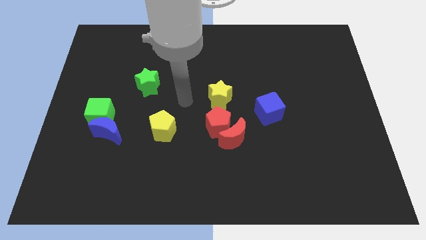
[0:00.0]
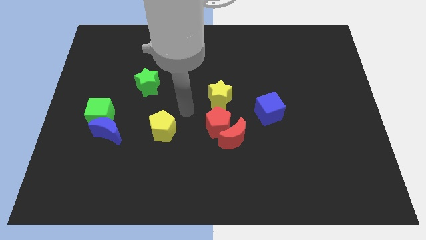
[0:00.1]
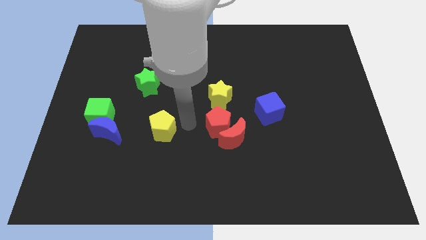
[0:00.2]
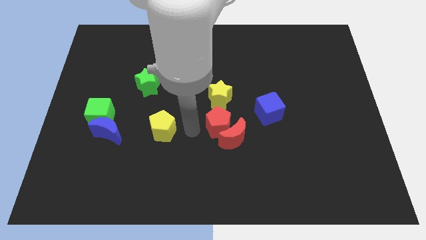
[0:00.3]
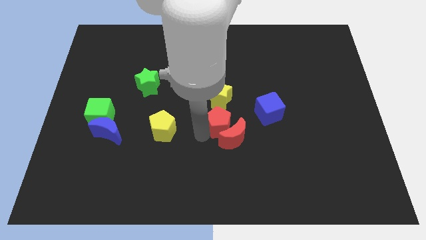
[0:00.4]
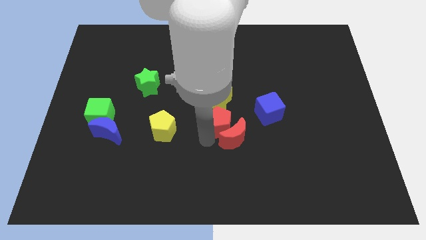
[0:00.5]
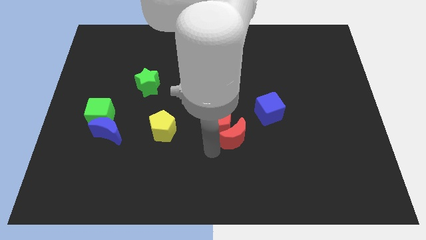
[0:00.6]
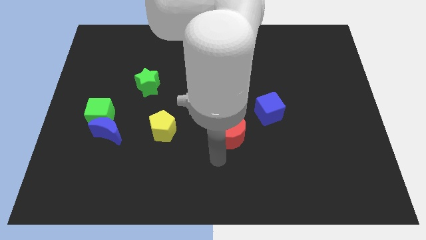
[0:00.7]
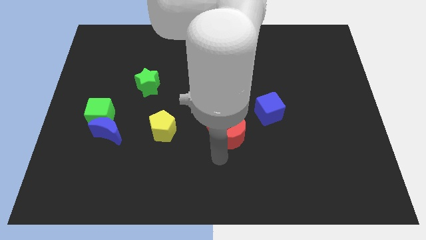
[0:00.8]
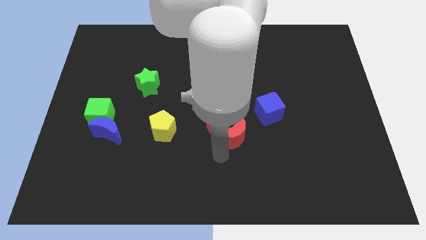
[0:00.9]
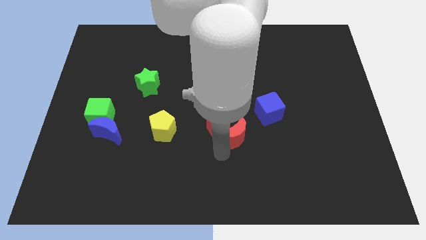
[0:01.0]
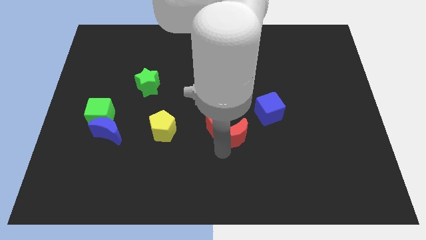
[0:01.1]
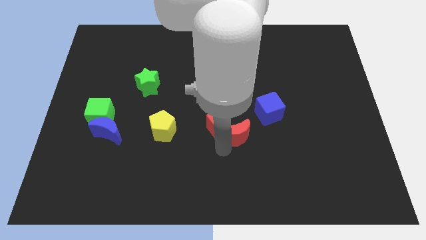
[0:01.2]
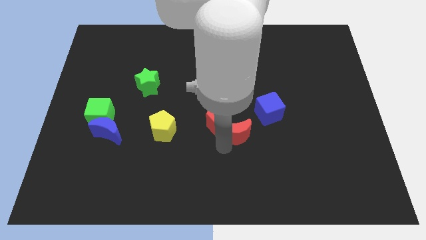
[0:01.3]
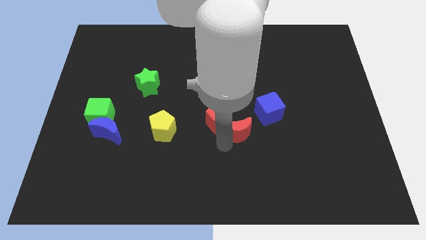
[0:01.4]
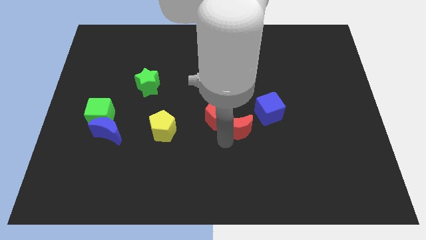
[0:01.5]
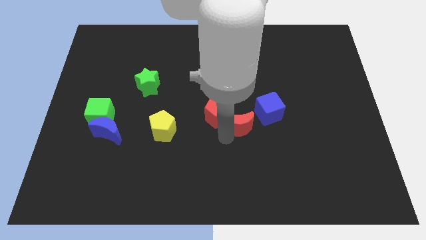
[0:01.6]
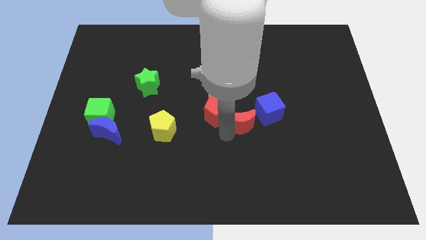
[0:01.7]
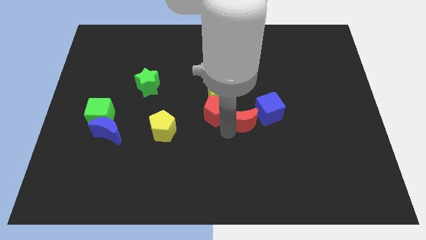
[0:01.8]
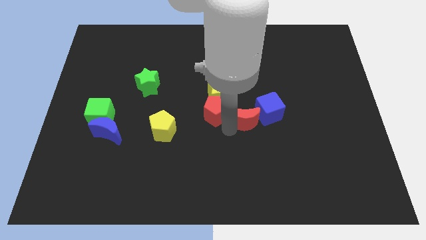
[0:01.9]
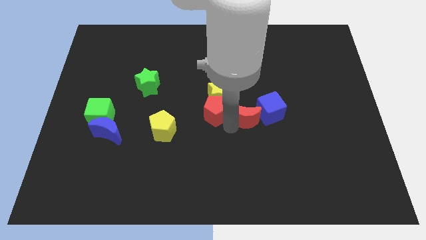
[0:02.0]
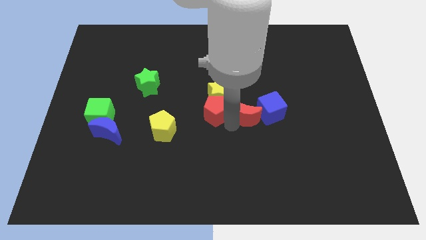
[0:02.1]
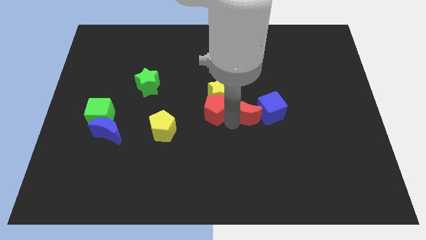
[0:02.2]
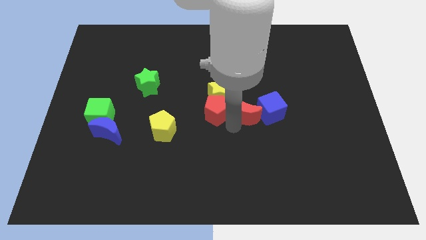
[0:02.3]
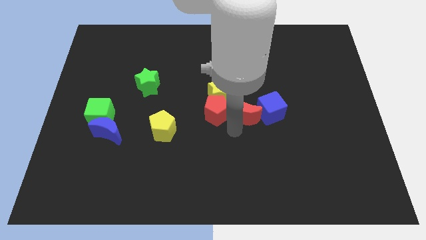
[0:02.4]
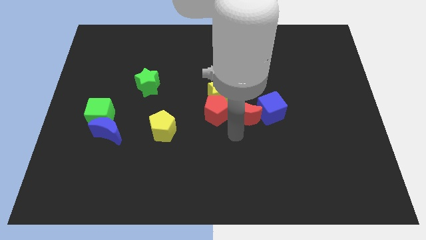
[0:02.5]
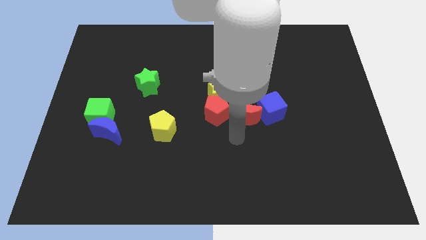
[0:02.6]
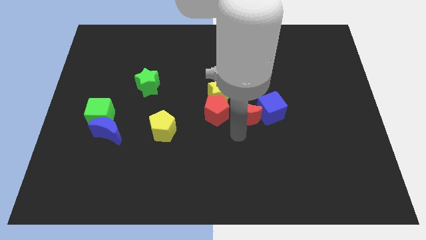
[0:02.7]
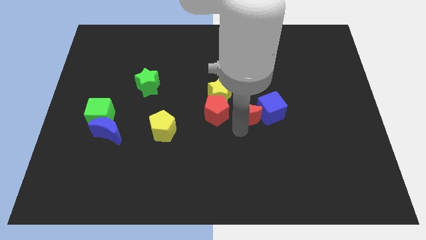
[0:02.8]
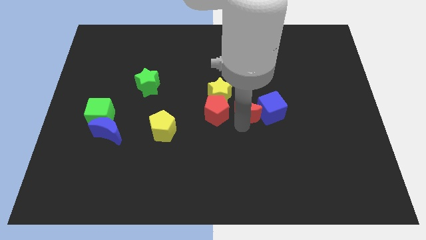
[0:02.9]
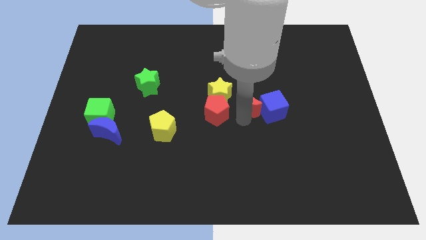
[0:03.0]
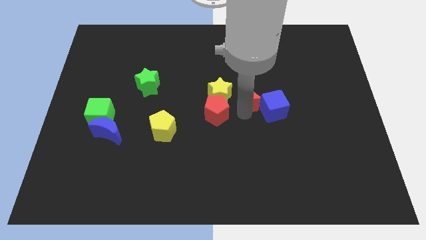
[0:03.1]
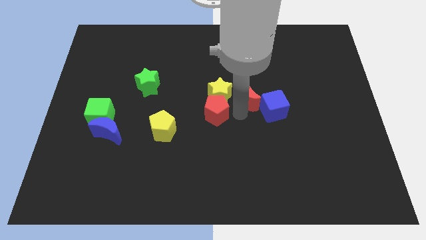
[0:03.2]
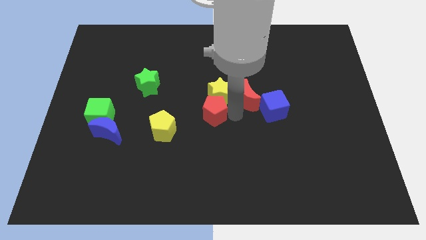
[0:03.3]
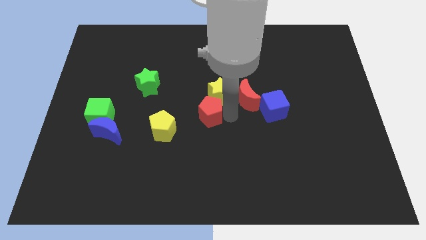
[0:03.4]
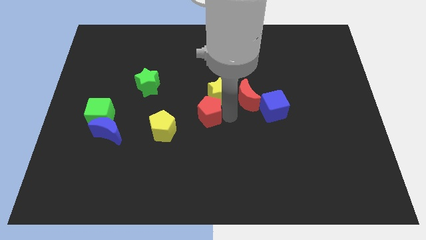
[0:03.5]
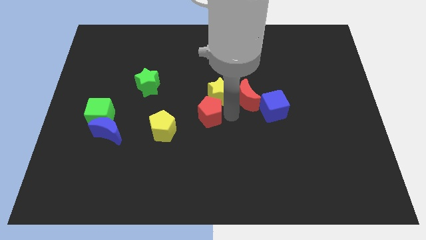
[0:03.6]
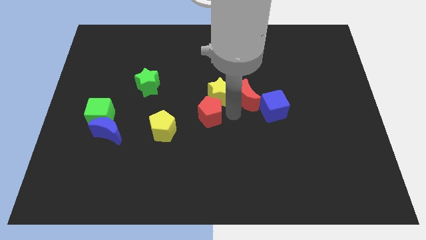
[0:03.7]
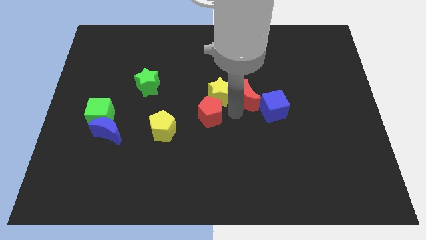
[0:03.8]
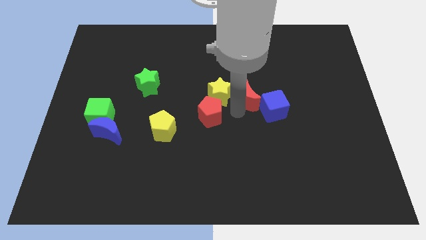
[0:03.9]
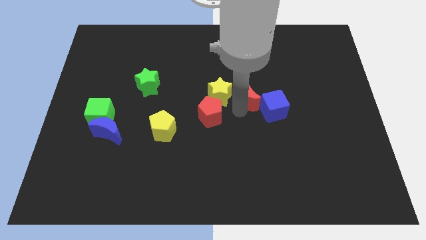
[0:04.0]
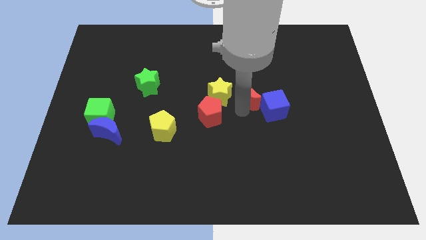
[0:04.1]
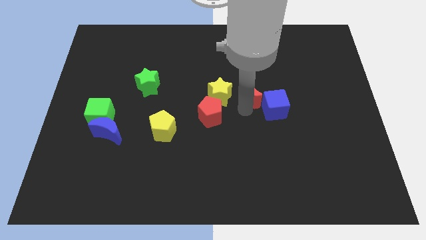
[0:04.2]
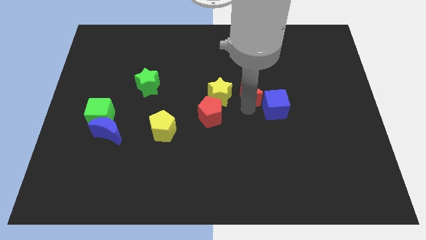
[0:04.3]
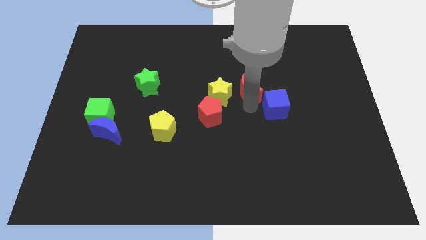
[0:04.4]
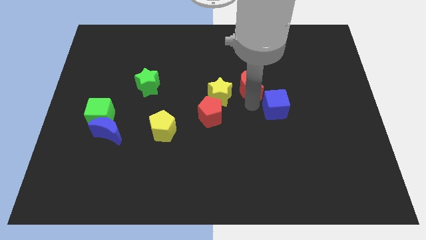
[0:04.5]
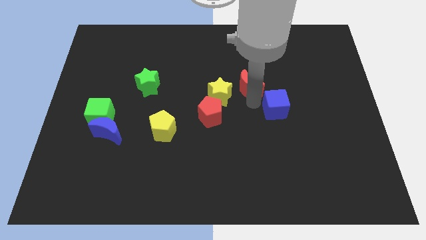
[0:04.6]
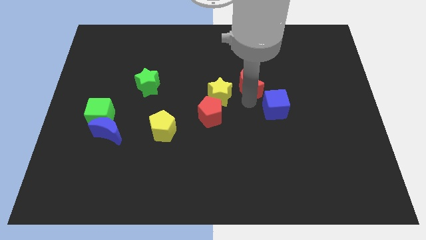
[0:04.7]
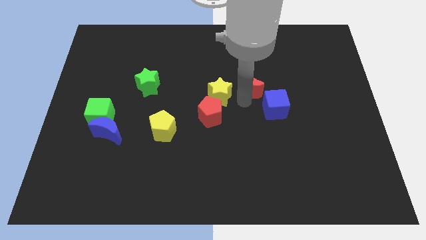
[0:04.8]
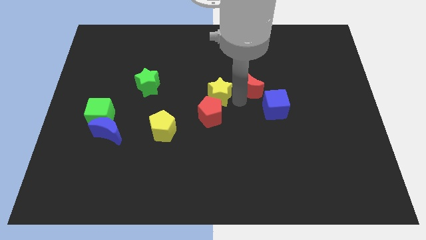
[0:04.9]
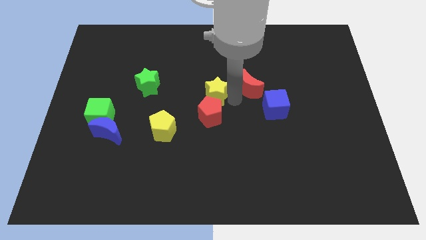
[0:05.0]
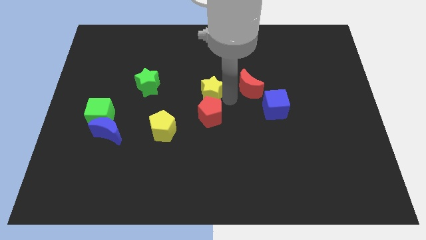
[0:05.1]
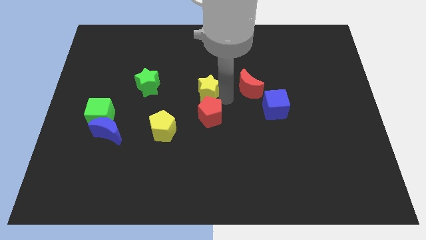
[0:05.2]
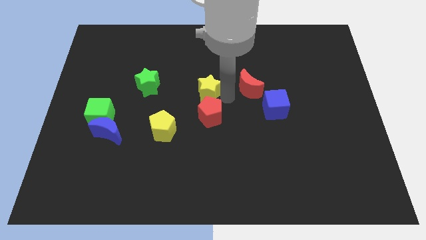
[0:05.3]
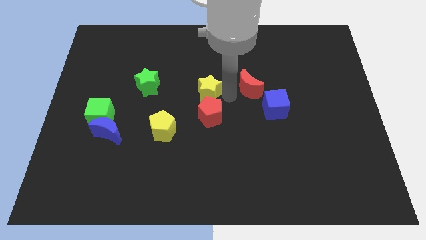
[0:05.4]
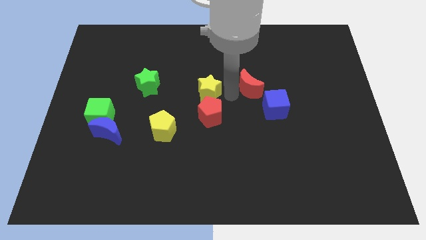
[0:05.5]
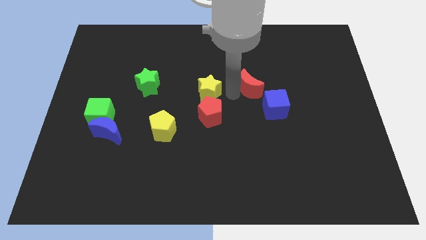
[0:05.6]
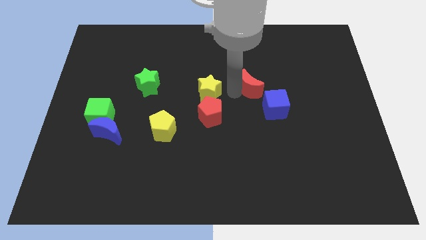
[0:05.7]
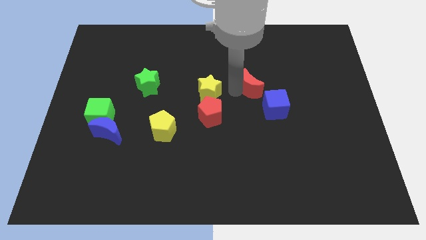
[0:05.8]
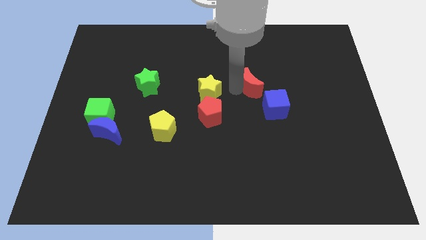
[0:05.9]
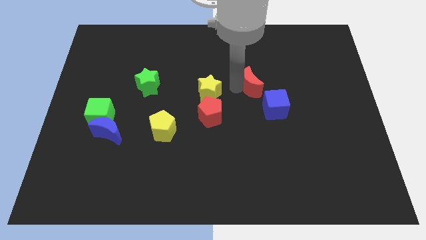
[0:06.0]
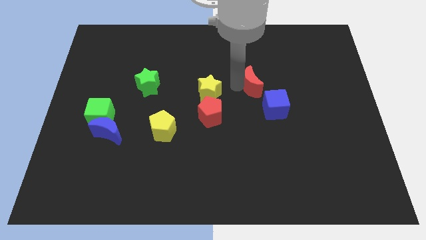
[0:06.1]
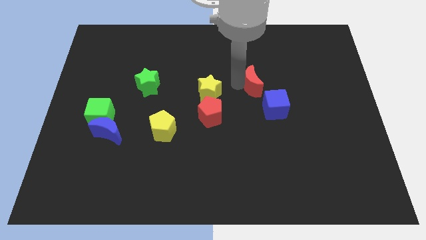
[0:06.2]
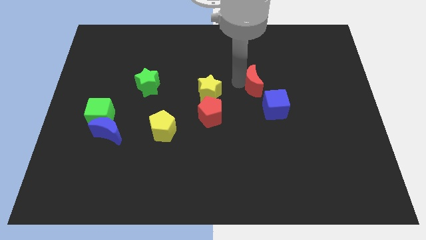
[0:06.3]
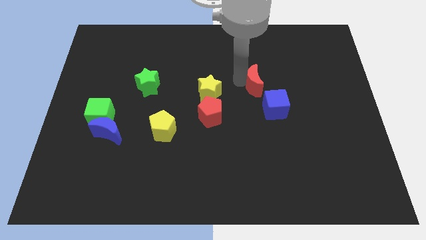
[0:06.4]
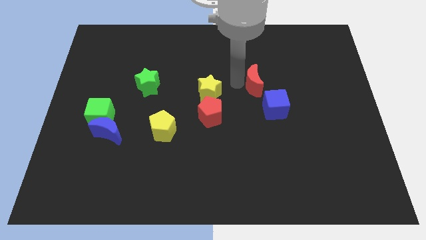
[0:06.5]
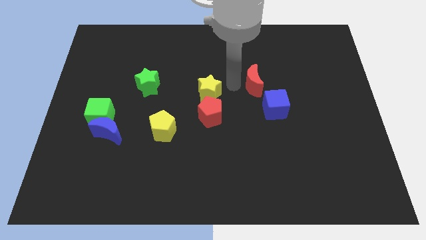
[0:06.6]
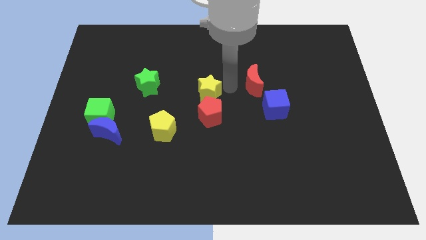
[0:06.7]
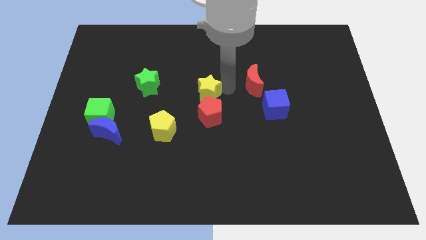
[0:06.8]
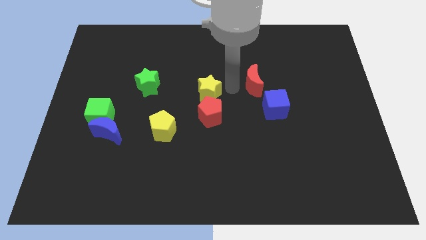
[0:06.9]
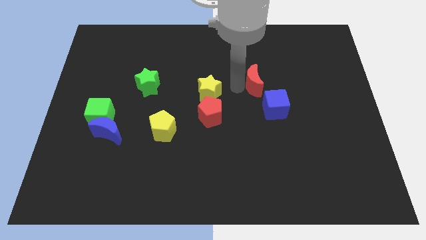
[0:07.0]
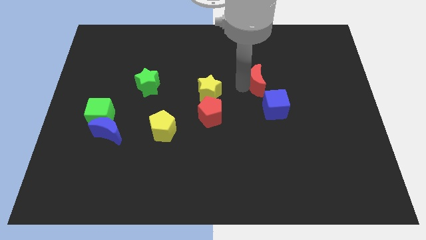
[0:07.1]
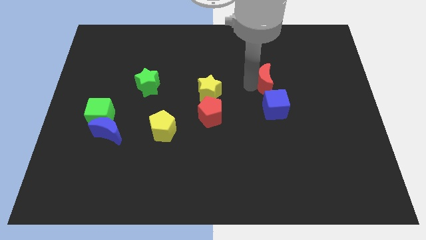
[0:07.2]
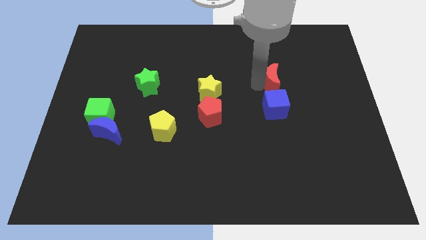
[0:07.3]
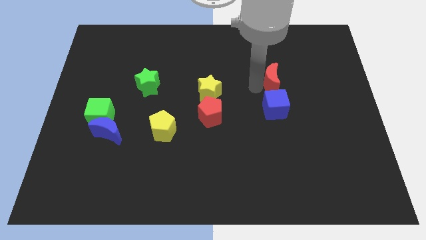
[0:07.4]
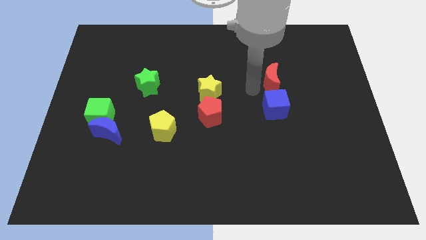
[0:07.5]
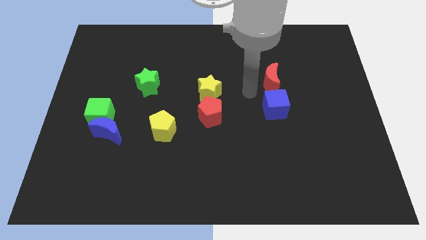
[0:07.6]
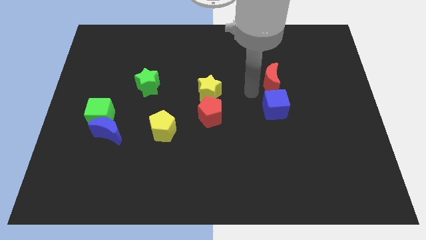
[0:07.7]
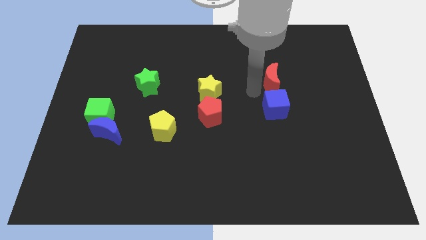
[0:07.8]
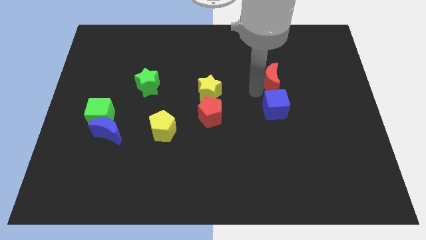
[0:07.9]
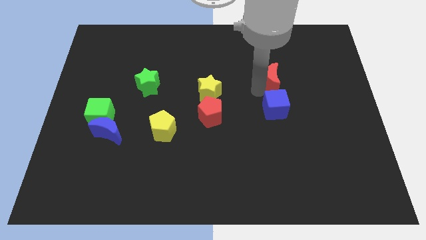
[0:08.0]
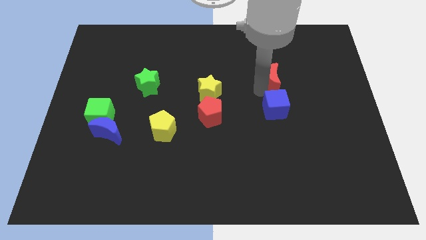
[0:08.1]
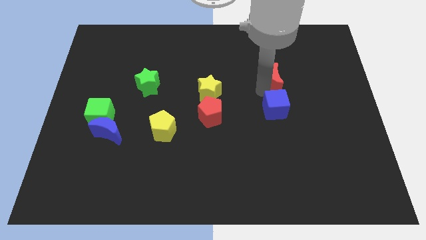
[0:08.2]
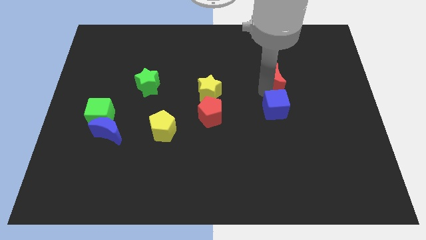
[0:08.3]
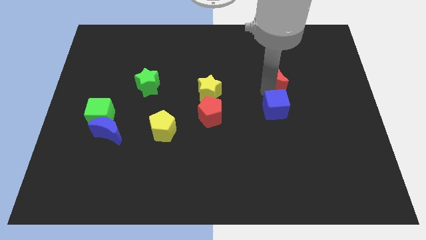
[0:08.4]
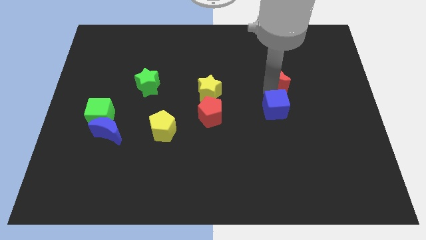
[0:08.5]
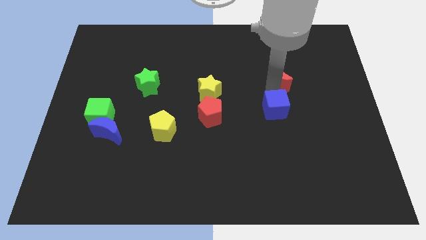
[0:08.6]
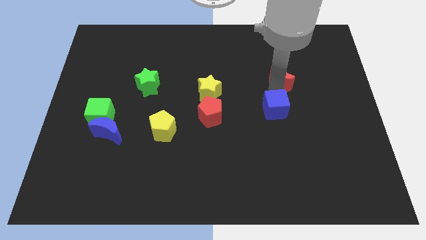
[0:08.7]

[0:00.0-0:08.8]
slide the red moon upwards and to the right
